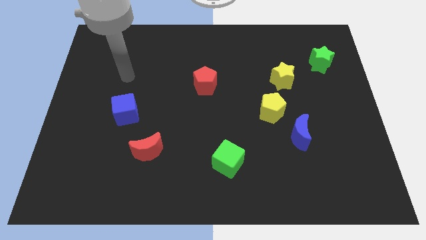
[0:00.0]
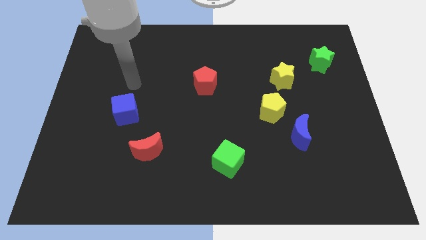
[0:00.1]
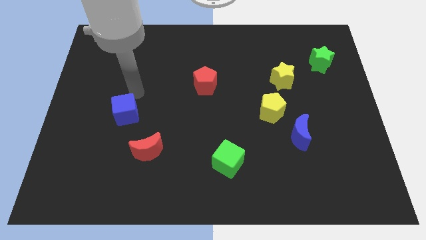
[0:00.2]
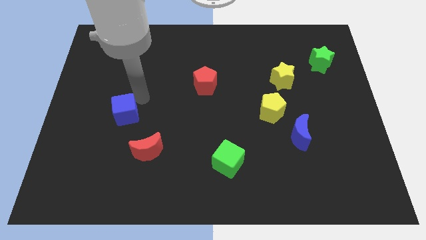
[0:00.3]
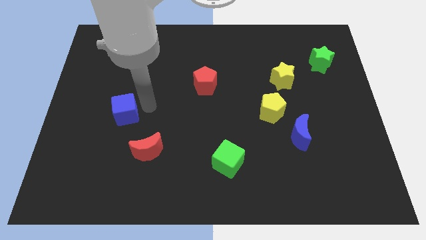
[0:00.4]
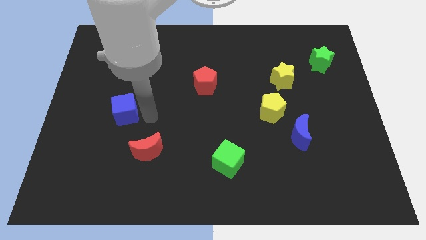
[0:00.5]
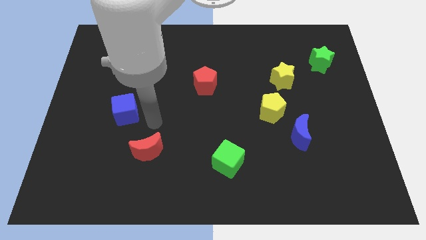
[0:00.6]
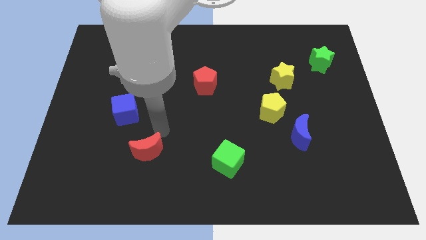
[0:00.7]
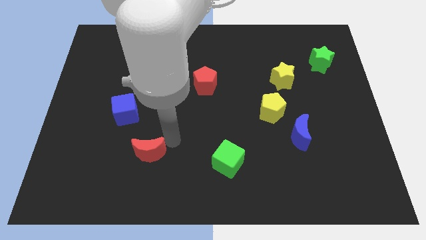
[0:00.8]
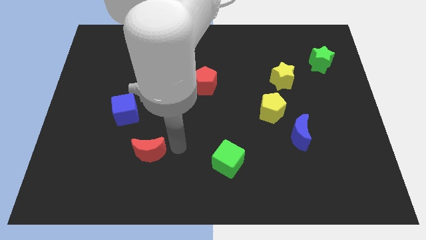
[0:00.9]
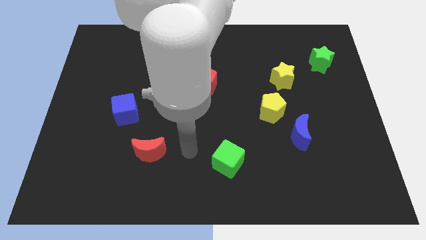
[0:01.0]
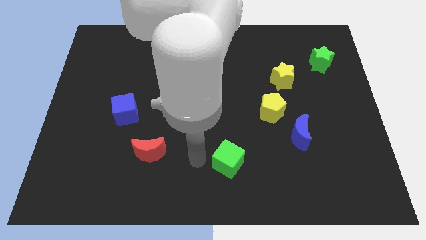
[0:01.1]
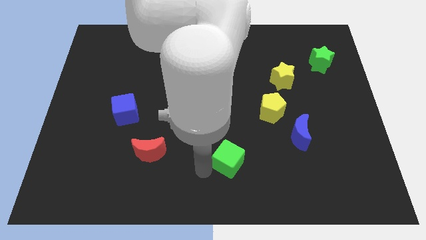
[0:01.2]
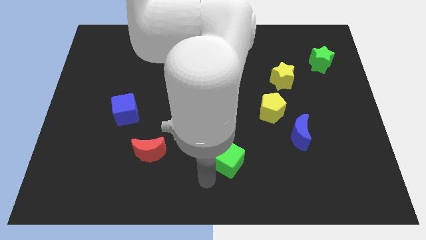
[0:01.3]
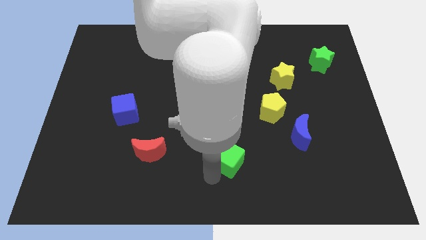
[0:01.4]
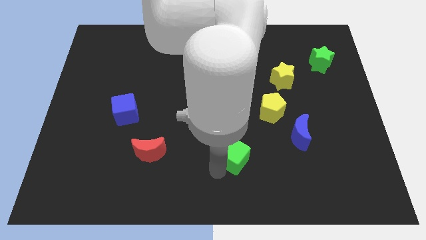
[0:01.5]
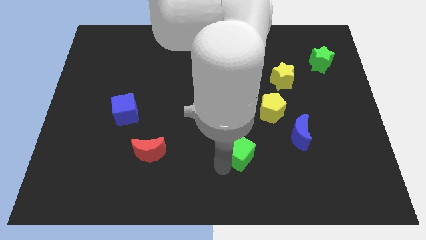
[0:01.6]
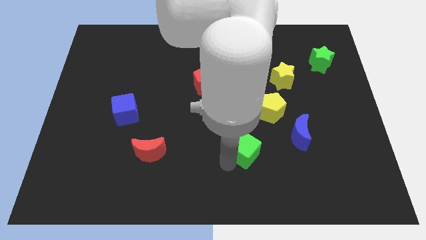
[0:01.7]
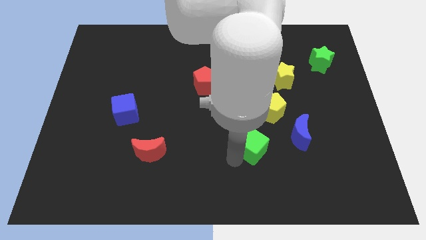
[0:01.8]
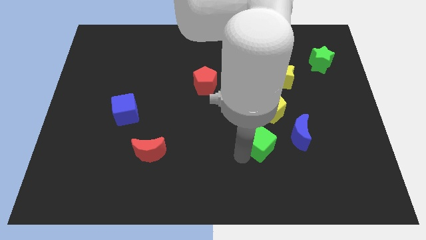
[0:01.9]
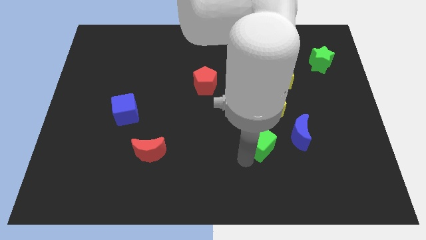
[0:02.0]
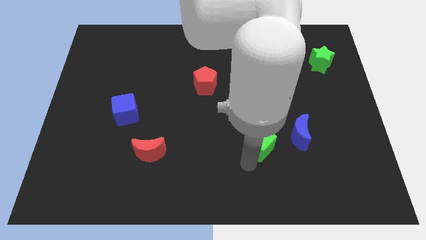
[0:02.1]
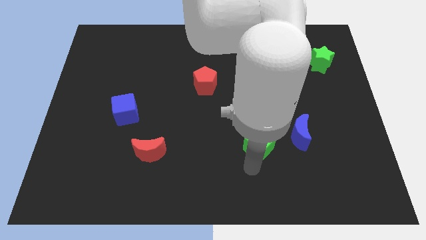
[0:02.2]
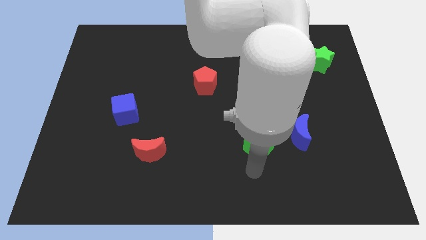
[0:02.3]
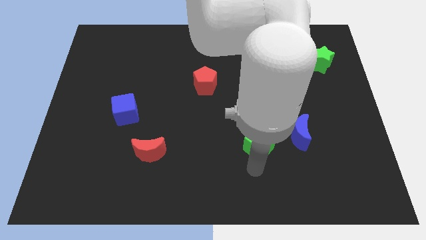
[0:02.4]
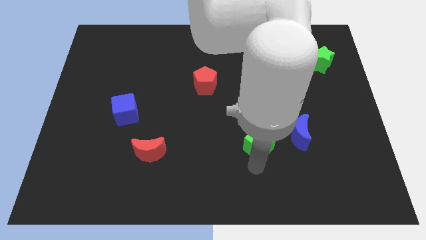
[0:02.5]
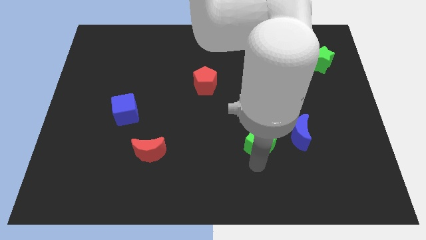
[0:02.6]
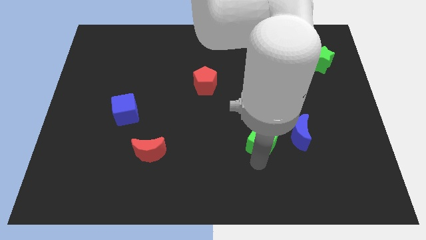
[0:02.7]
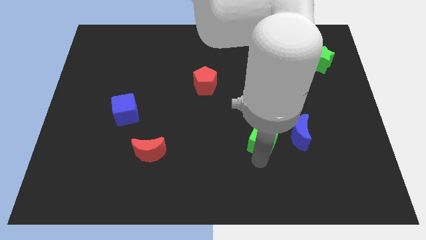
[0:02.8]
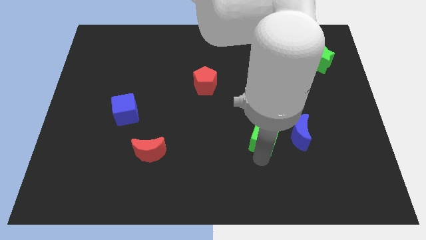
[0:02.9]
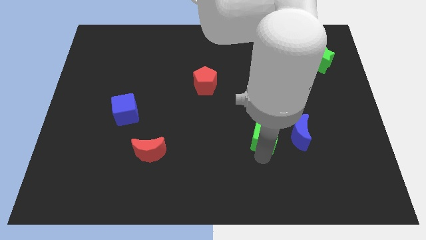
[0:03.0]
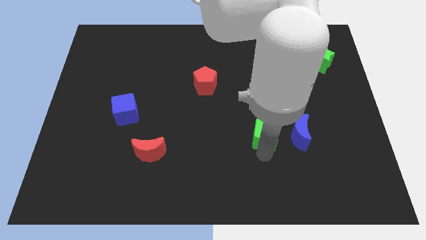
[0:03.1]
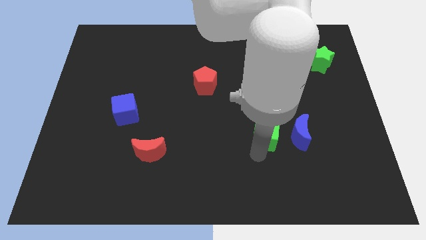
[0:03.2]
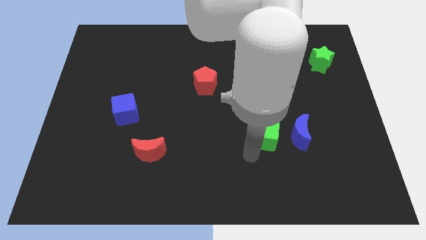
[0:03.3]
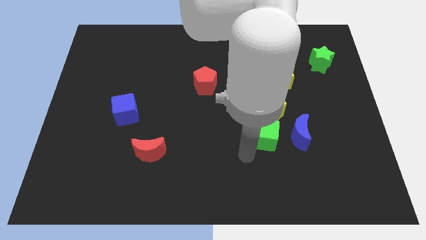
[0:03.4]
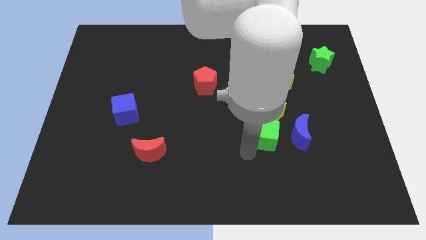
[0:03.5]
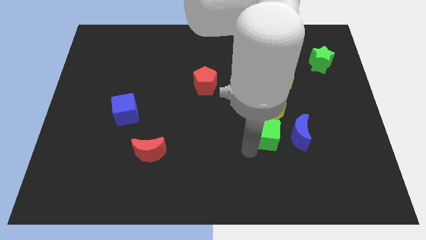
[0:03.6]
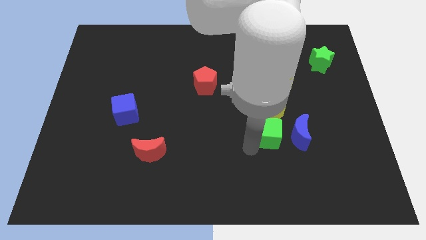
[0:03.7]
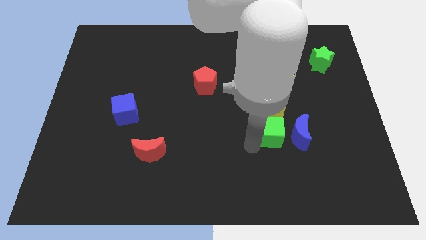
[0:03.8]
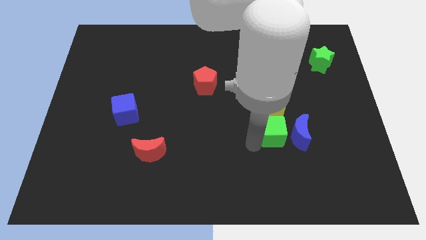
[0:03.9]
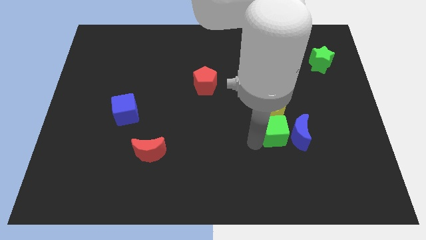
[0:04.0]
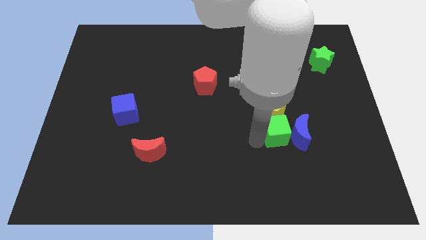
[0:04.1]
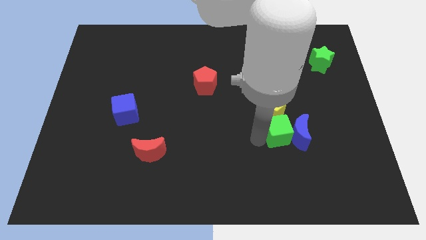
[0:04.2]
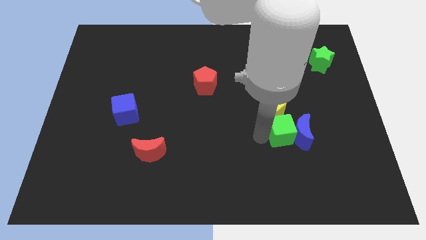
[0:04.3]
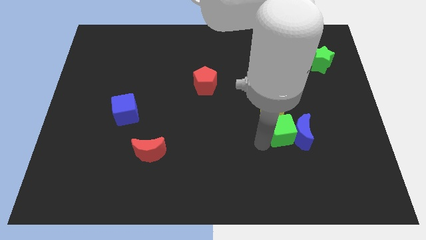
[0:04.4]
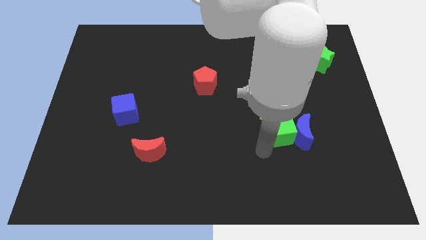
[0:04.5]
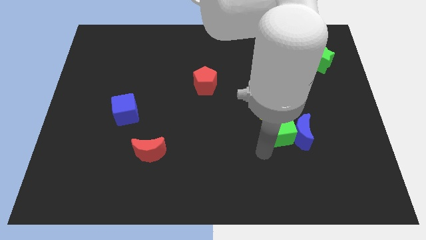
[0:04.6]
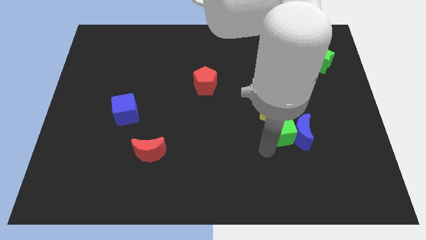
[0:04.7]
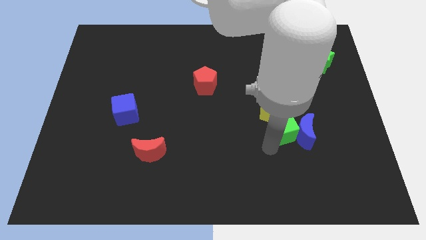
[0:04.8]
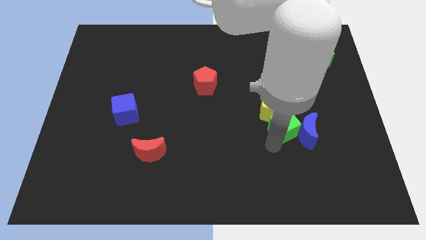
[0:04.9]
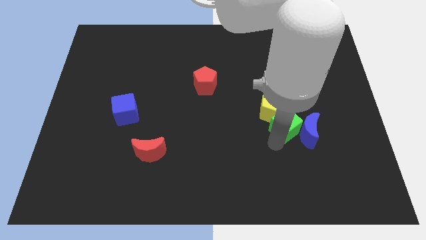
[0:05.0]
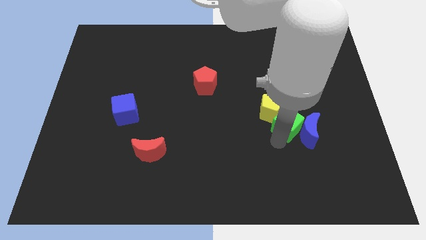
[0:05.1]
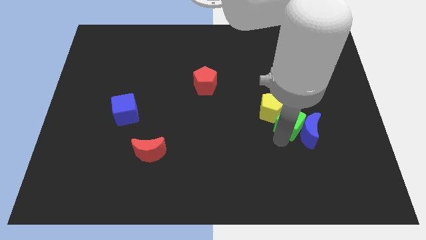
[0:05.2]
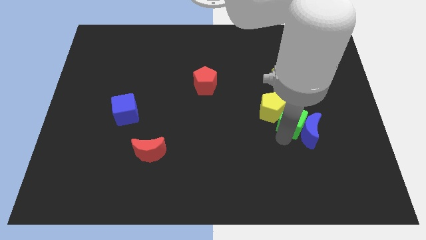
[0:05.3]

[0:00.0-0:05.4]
slide the green cube above the blue moon

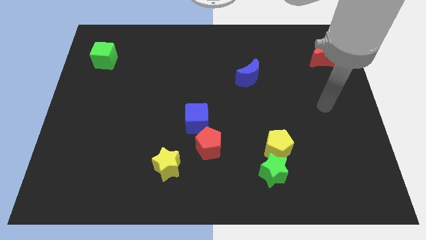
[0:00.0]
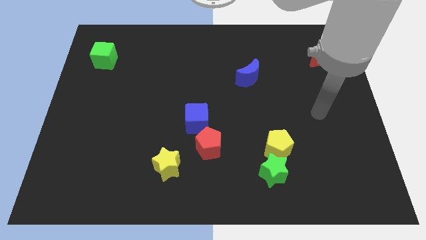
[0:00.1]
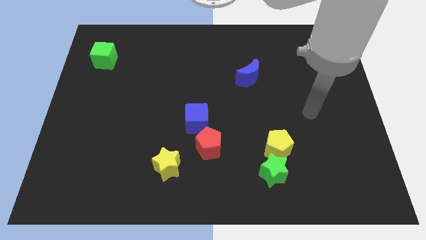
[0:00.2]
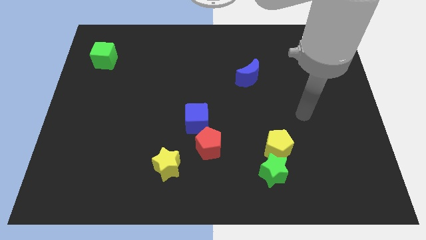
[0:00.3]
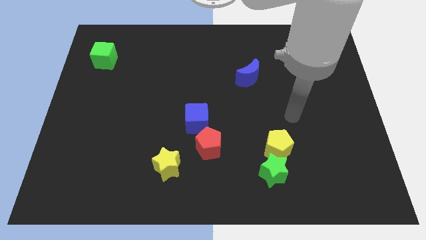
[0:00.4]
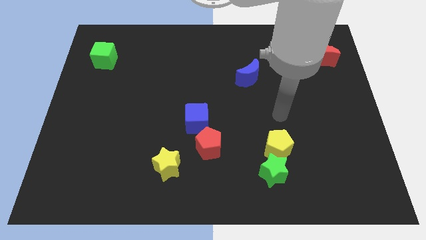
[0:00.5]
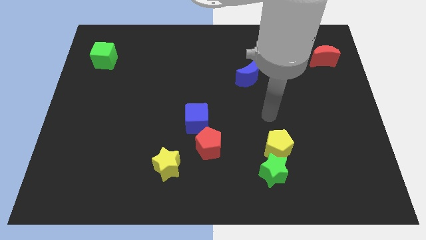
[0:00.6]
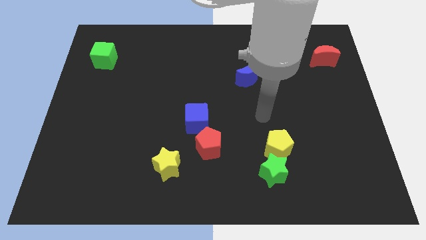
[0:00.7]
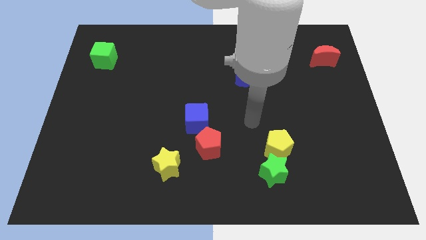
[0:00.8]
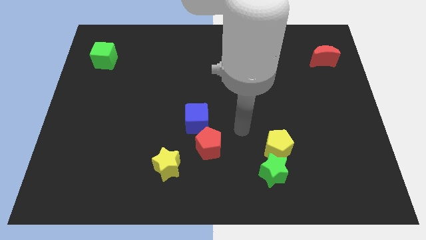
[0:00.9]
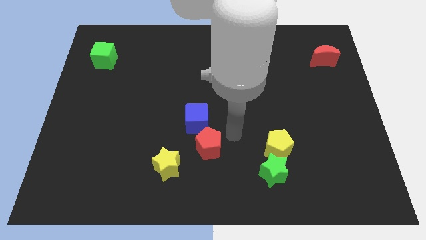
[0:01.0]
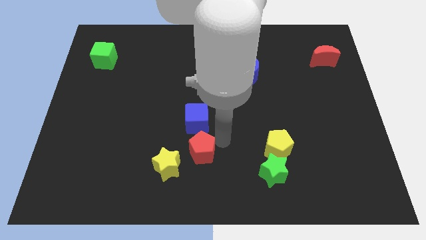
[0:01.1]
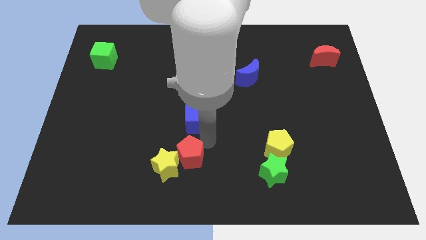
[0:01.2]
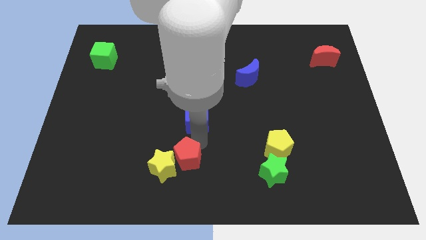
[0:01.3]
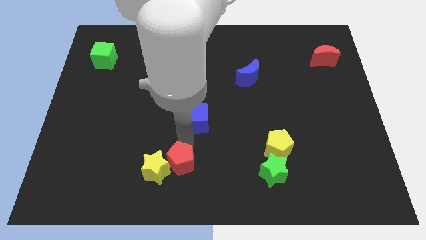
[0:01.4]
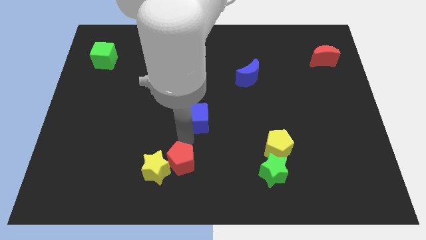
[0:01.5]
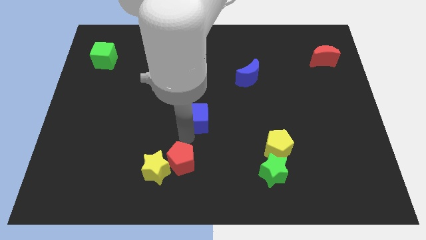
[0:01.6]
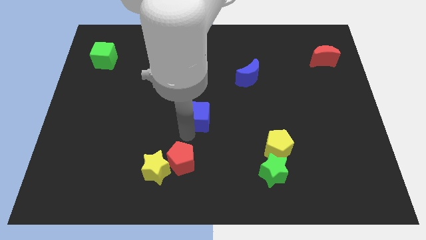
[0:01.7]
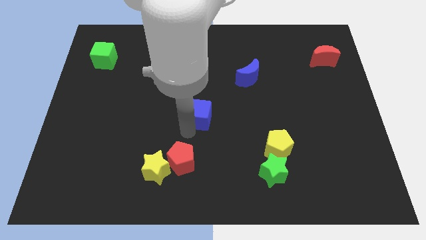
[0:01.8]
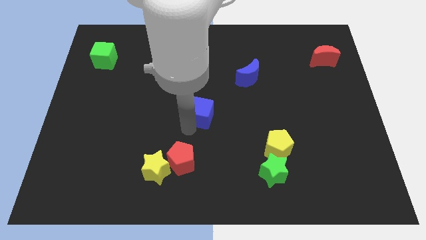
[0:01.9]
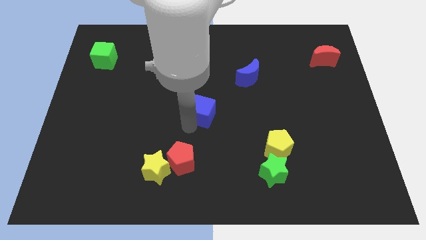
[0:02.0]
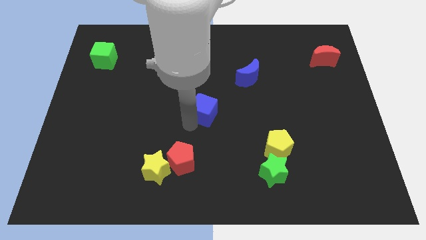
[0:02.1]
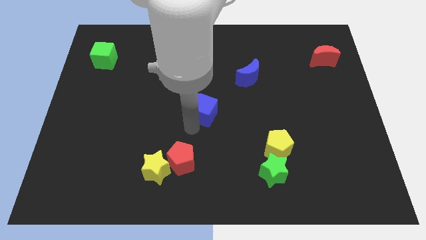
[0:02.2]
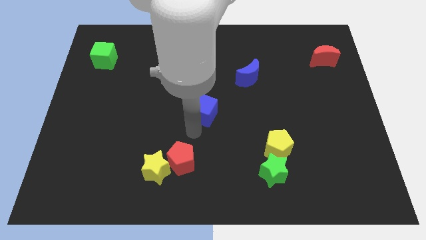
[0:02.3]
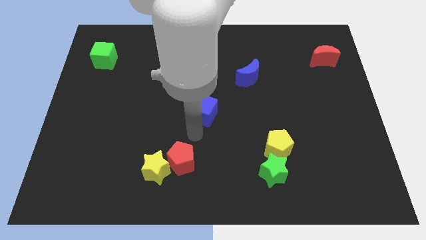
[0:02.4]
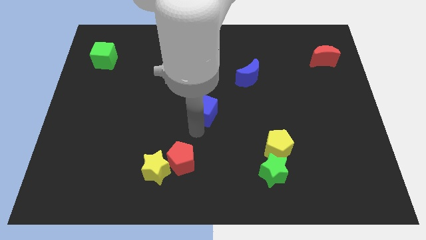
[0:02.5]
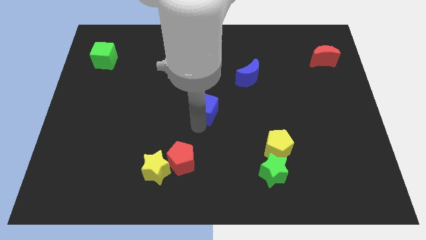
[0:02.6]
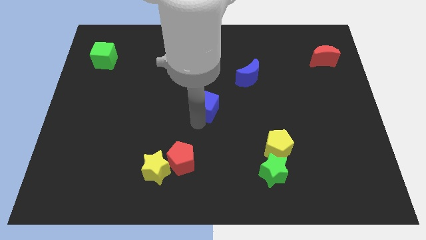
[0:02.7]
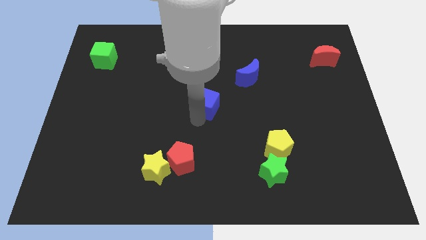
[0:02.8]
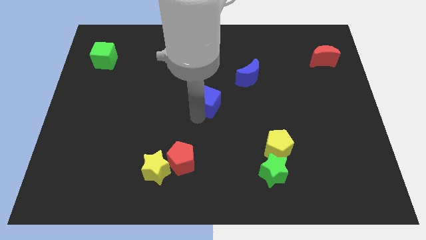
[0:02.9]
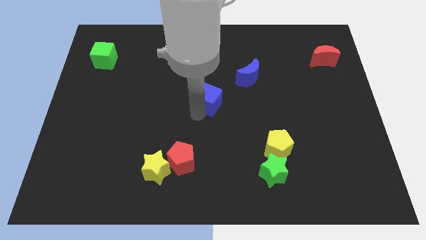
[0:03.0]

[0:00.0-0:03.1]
slide the blue cube diagonally down and to the left of the blue moon
